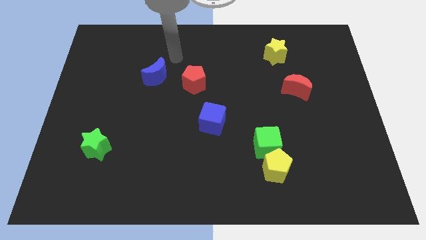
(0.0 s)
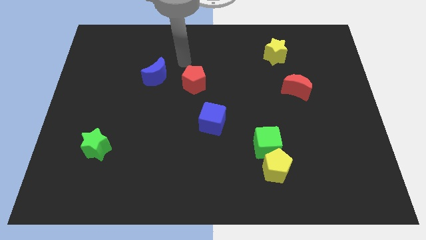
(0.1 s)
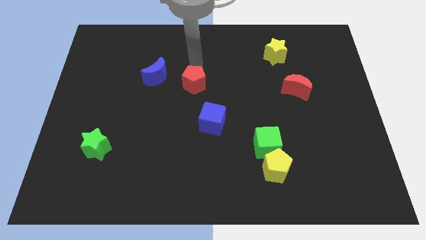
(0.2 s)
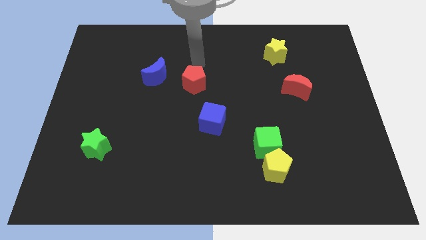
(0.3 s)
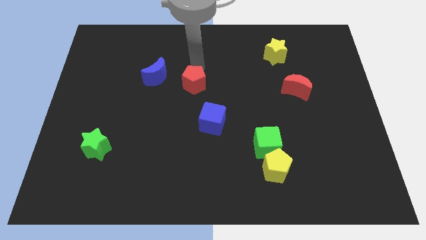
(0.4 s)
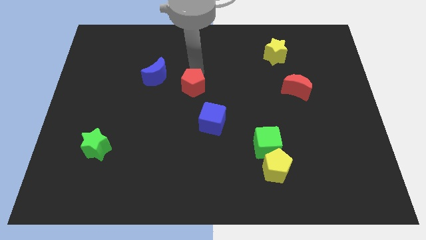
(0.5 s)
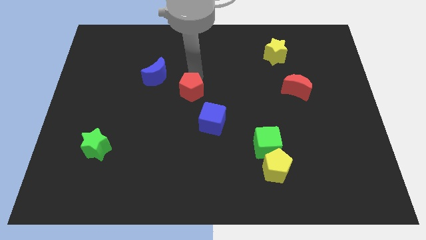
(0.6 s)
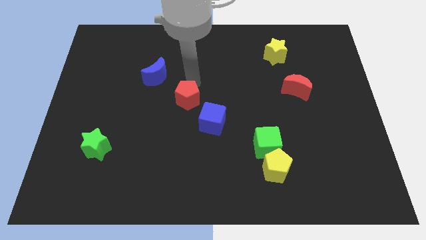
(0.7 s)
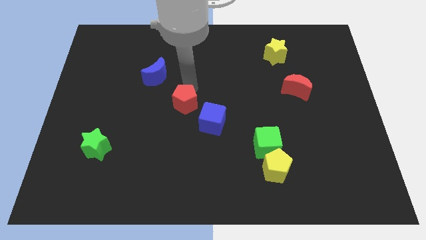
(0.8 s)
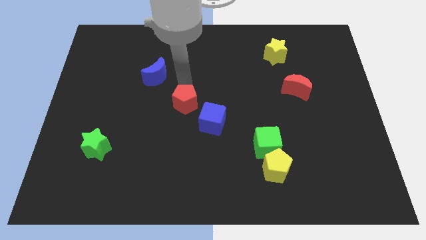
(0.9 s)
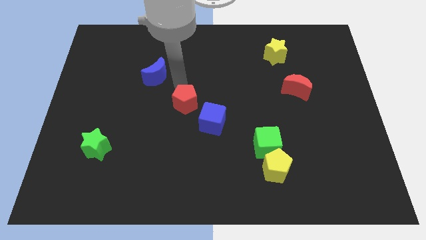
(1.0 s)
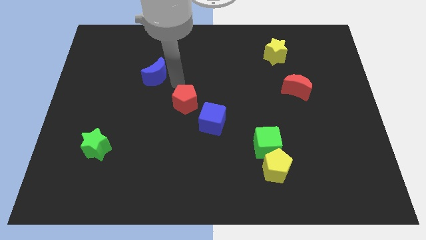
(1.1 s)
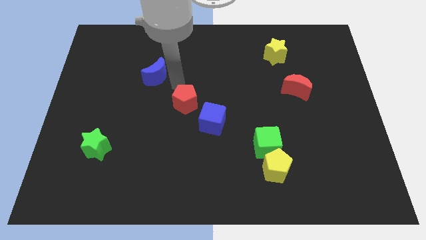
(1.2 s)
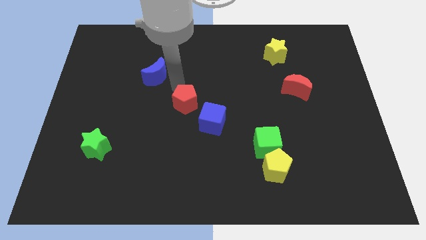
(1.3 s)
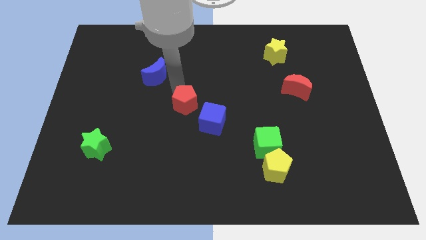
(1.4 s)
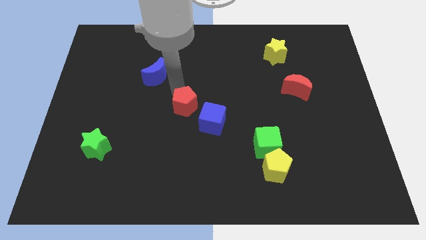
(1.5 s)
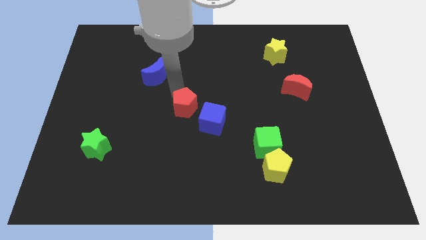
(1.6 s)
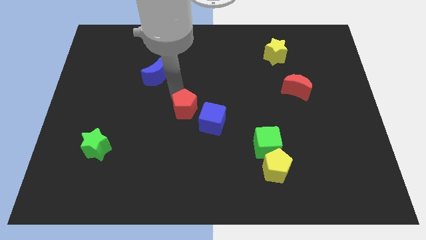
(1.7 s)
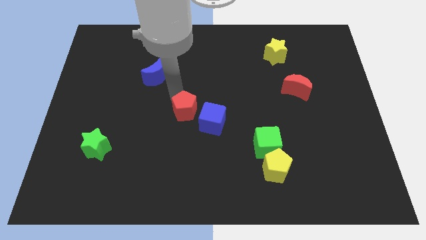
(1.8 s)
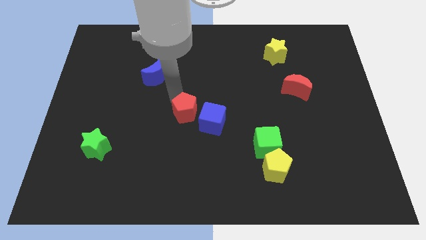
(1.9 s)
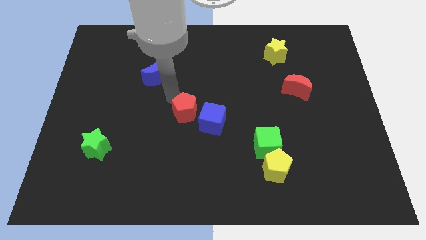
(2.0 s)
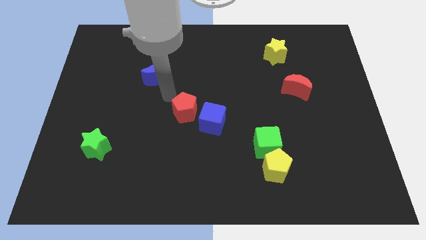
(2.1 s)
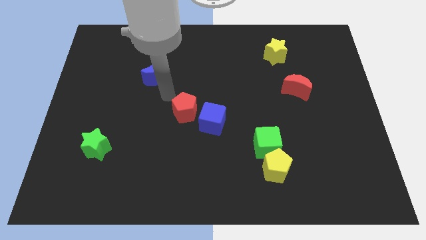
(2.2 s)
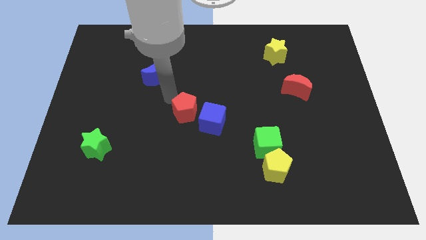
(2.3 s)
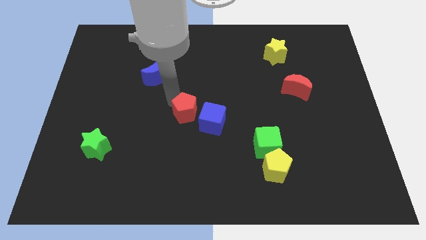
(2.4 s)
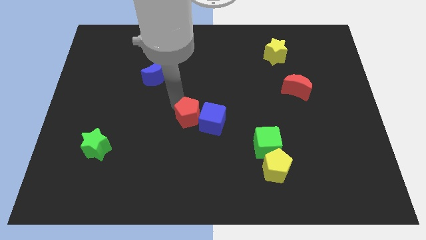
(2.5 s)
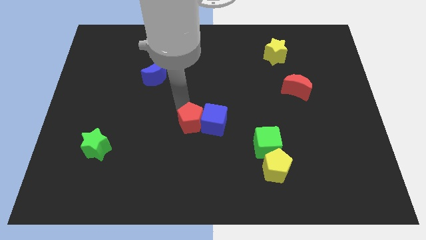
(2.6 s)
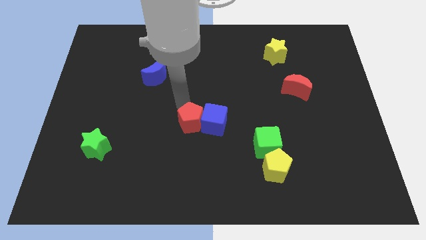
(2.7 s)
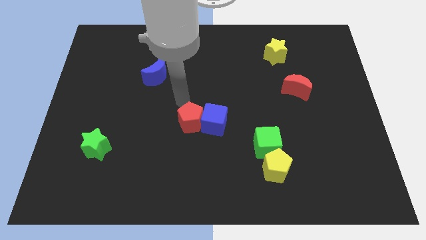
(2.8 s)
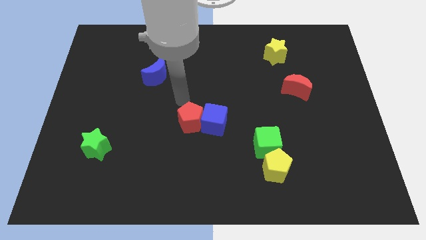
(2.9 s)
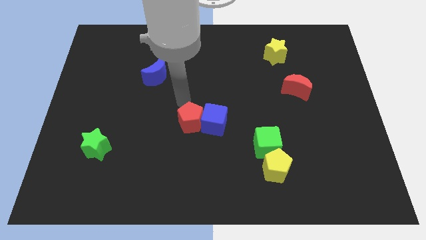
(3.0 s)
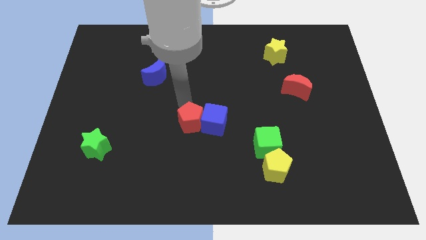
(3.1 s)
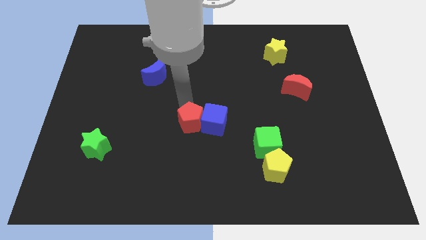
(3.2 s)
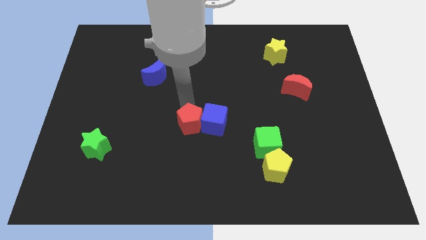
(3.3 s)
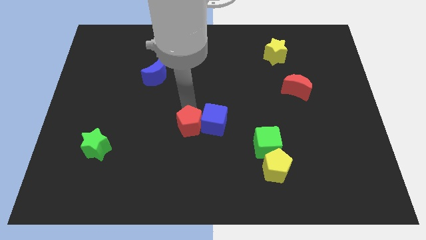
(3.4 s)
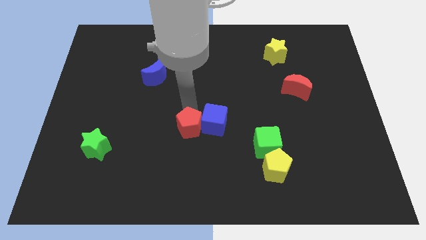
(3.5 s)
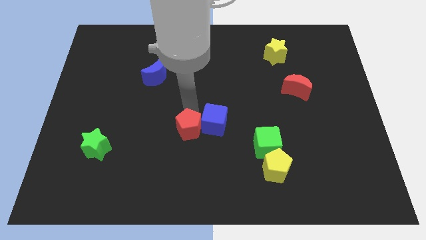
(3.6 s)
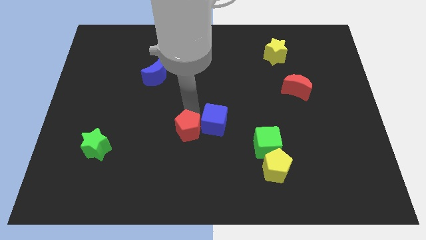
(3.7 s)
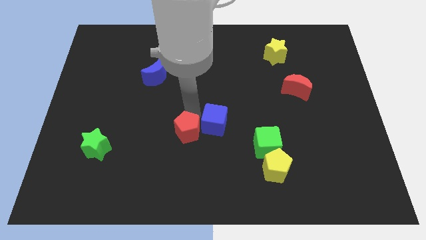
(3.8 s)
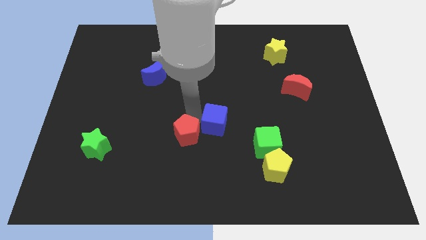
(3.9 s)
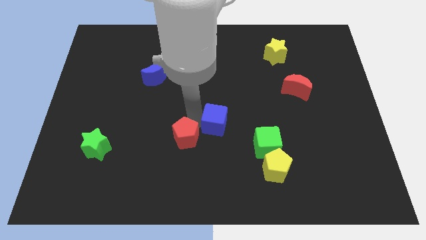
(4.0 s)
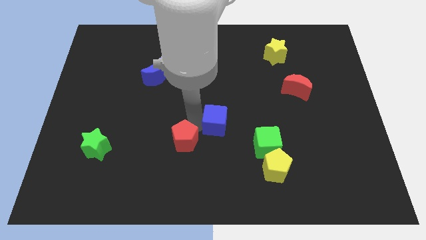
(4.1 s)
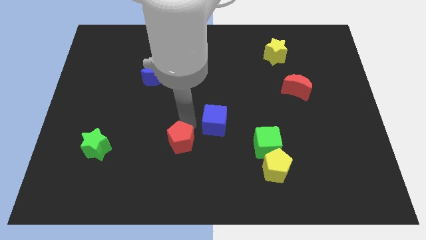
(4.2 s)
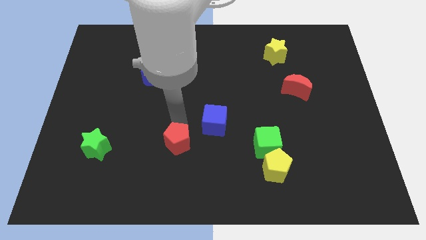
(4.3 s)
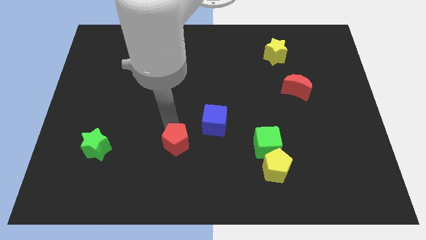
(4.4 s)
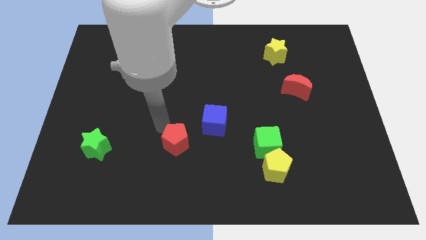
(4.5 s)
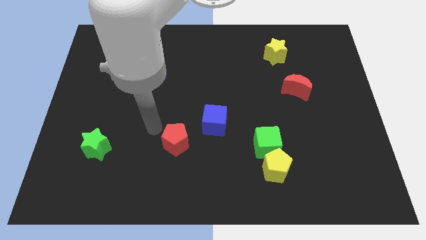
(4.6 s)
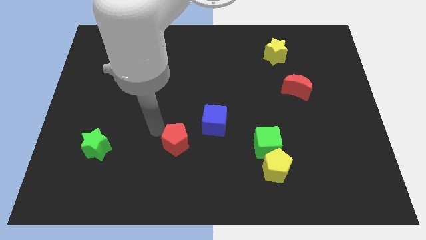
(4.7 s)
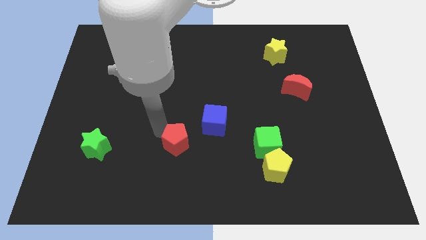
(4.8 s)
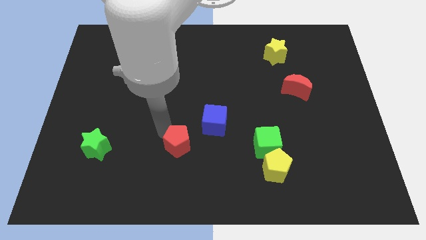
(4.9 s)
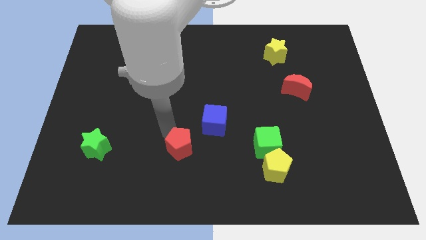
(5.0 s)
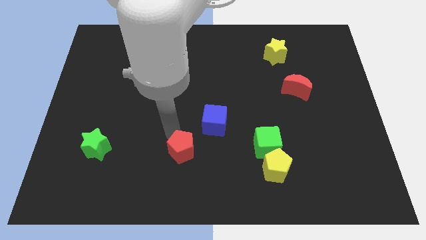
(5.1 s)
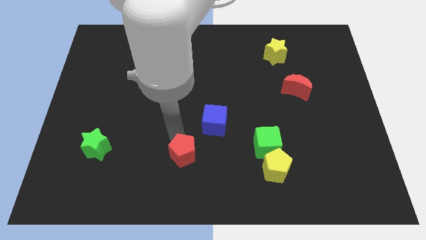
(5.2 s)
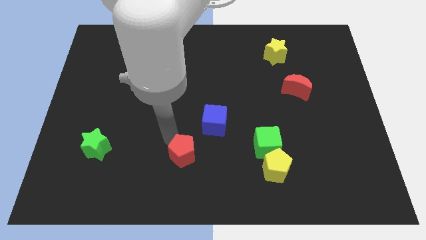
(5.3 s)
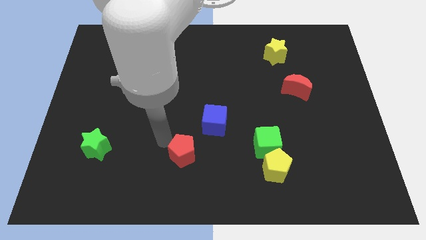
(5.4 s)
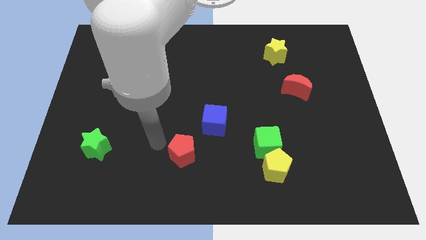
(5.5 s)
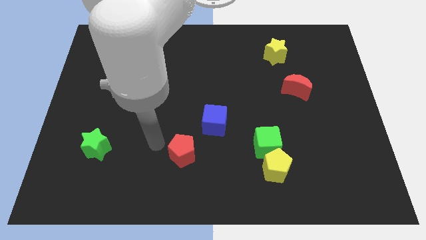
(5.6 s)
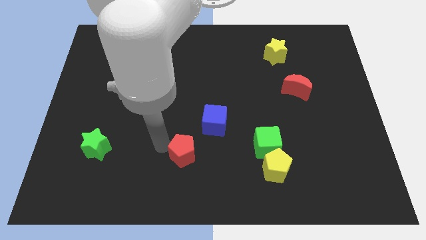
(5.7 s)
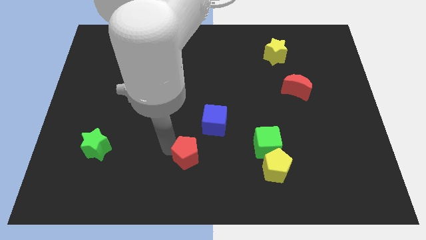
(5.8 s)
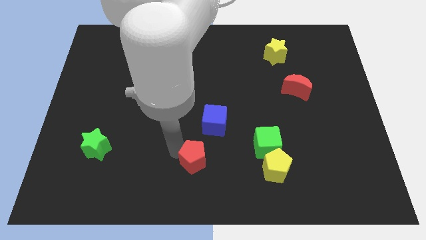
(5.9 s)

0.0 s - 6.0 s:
push the red pentagon to the bottom side of the blue cube

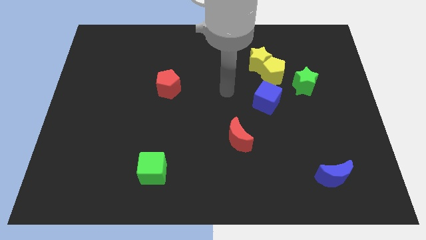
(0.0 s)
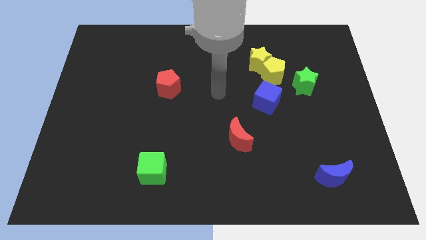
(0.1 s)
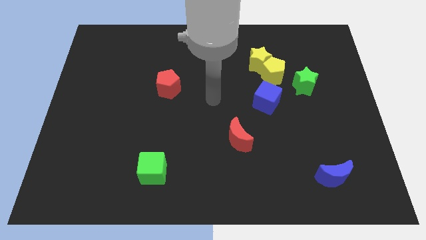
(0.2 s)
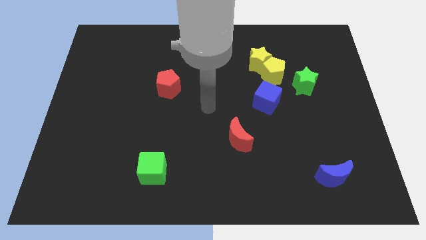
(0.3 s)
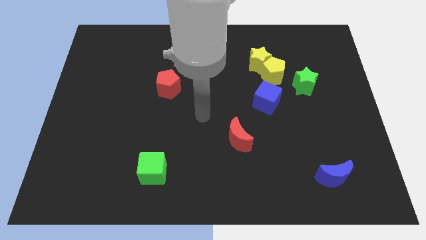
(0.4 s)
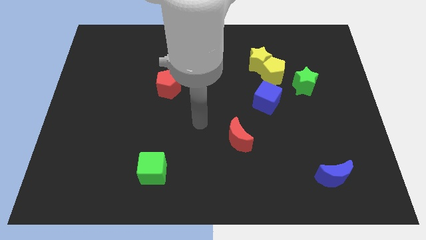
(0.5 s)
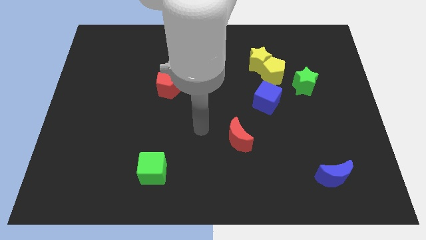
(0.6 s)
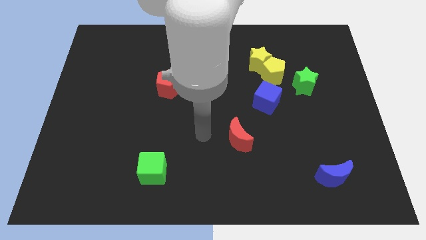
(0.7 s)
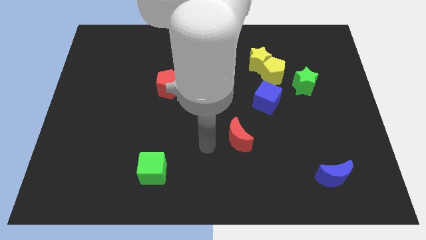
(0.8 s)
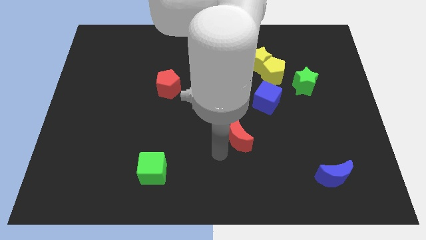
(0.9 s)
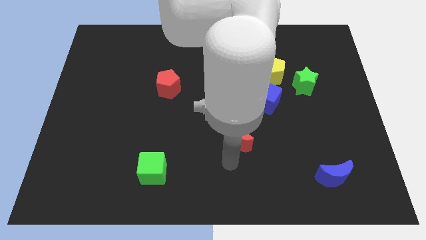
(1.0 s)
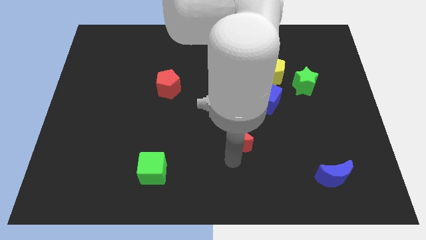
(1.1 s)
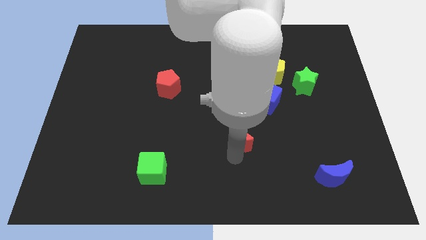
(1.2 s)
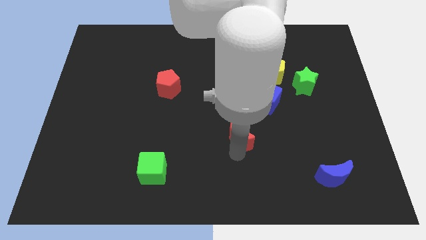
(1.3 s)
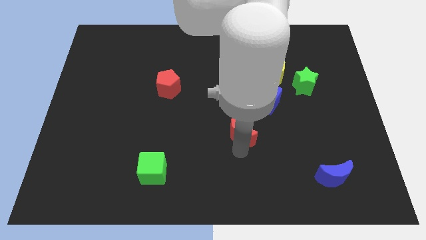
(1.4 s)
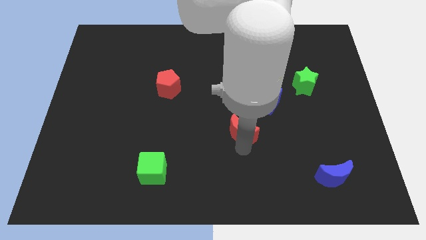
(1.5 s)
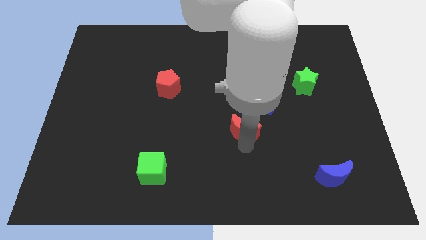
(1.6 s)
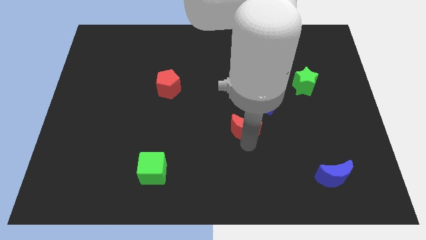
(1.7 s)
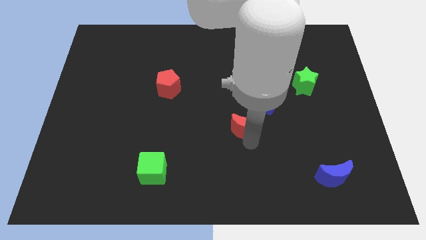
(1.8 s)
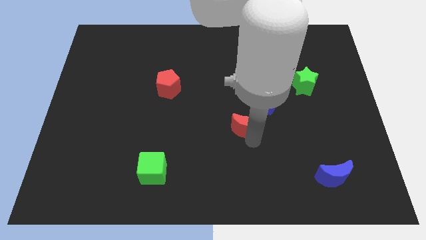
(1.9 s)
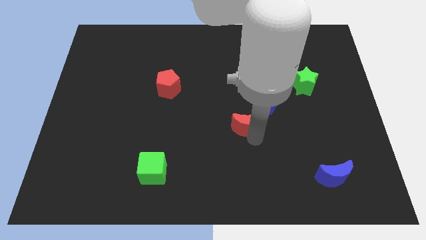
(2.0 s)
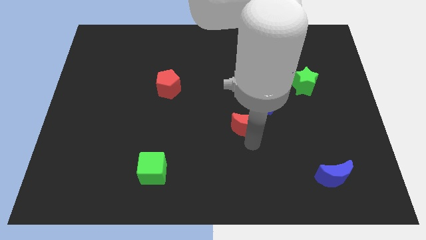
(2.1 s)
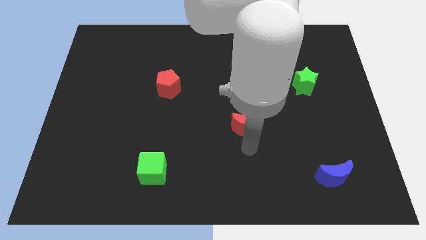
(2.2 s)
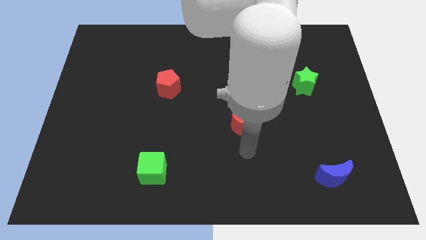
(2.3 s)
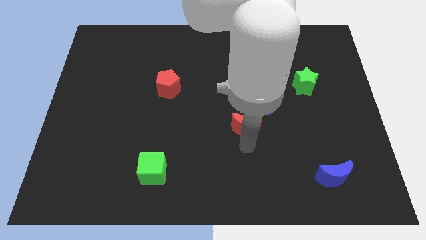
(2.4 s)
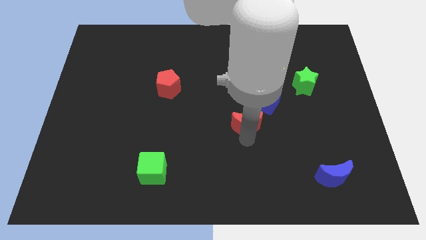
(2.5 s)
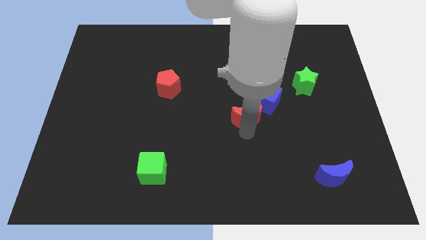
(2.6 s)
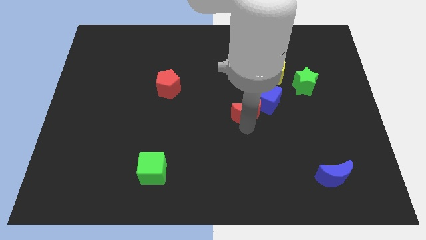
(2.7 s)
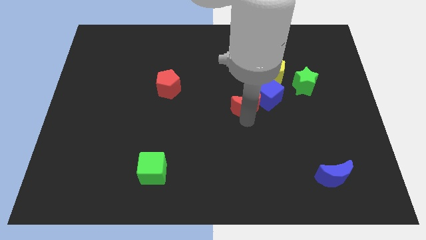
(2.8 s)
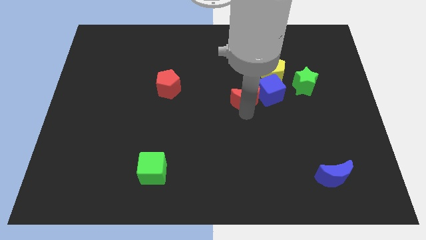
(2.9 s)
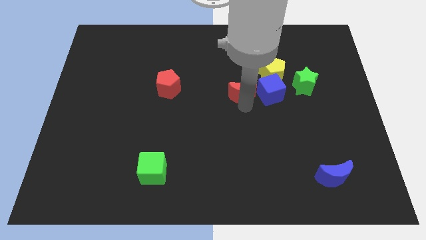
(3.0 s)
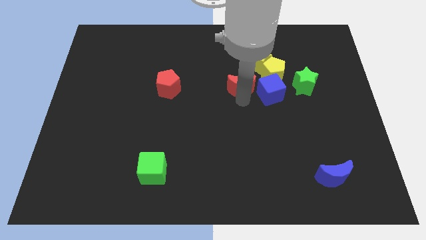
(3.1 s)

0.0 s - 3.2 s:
push the red moon to the top left of the blue cube
